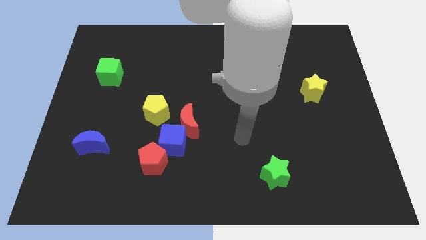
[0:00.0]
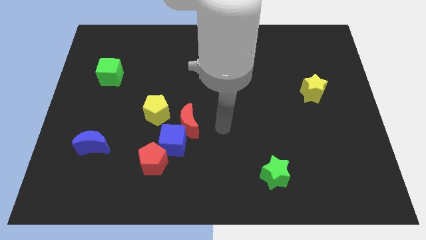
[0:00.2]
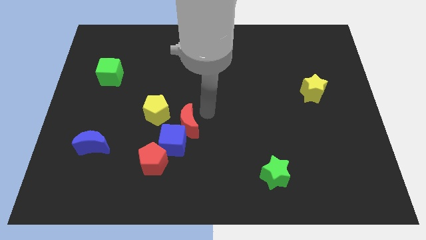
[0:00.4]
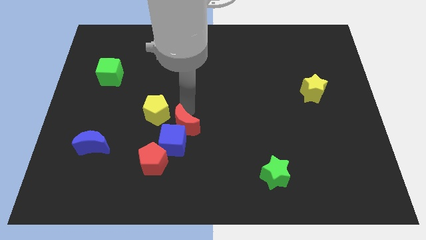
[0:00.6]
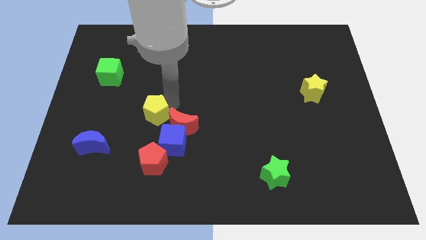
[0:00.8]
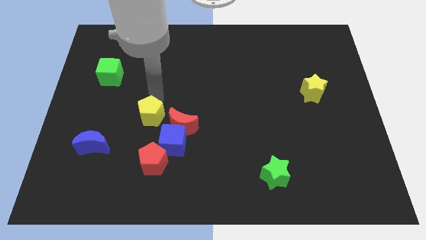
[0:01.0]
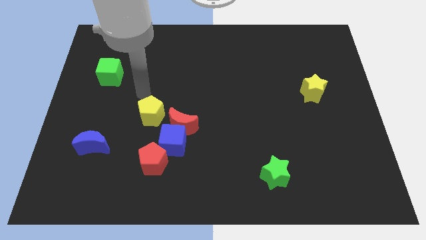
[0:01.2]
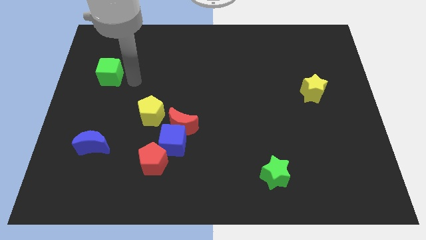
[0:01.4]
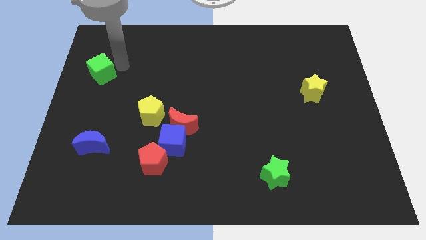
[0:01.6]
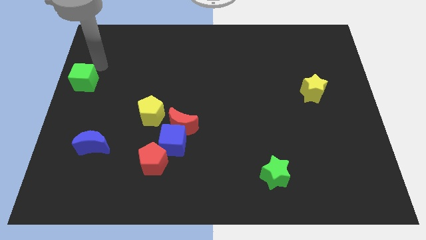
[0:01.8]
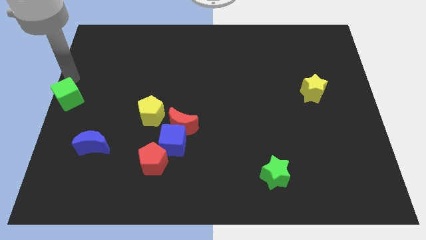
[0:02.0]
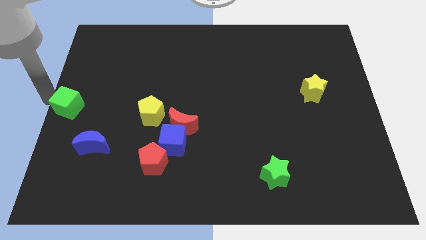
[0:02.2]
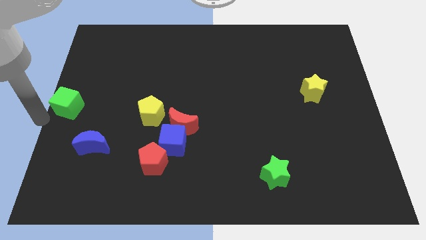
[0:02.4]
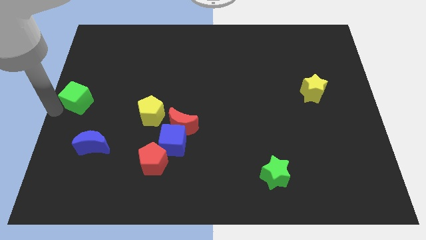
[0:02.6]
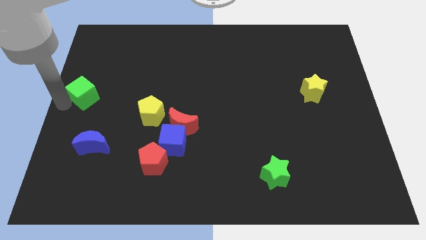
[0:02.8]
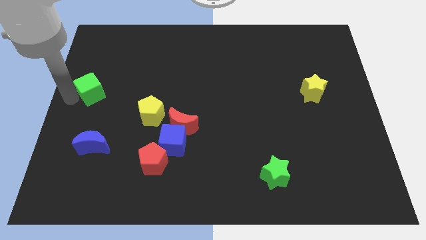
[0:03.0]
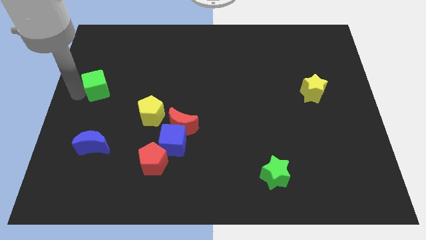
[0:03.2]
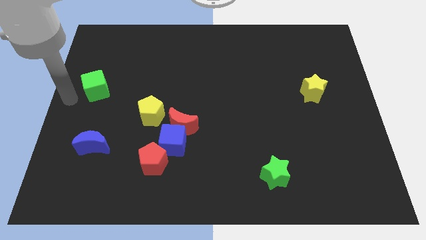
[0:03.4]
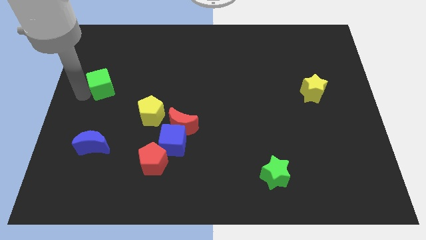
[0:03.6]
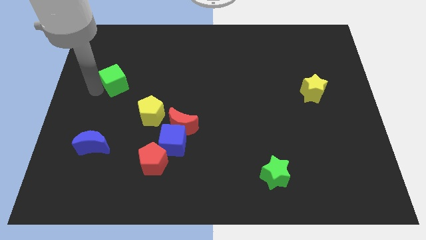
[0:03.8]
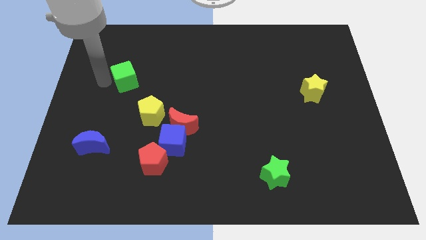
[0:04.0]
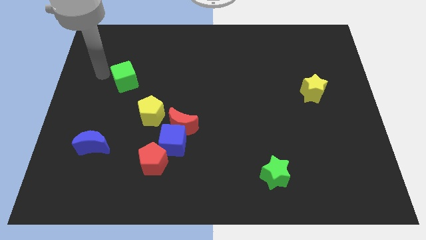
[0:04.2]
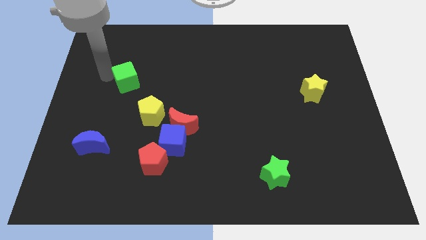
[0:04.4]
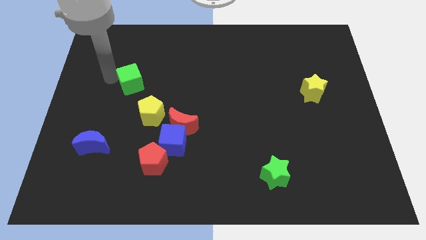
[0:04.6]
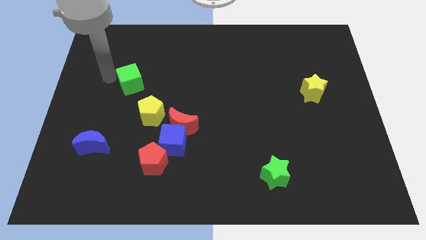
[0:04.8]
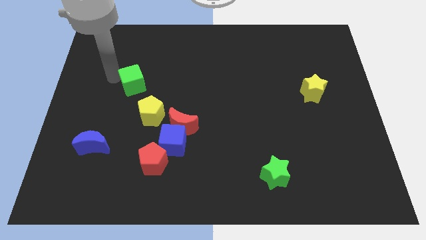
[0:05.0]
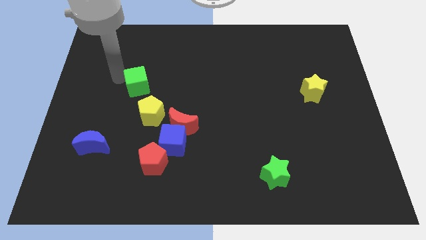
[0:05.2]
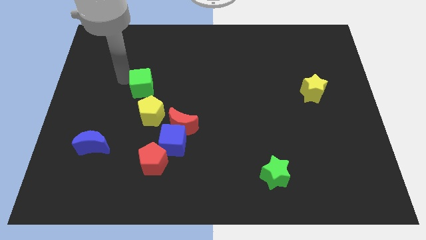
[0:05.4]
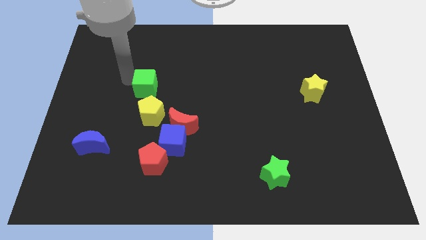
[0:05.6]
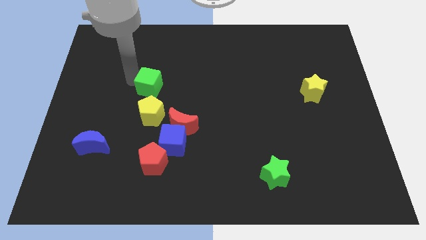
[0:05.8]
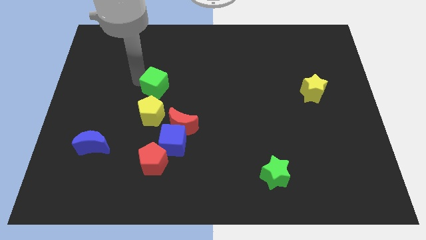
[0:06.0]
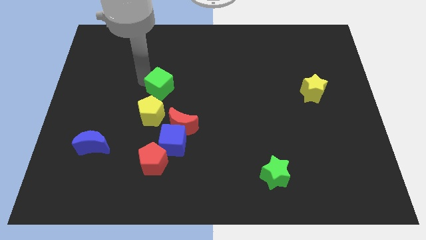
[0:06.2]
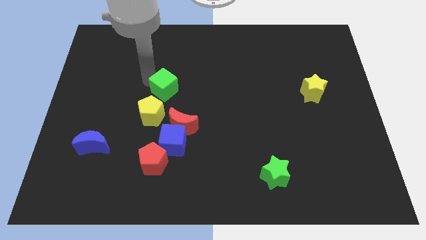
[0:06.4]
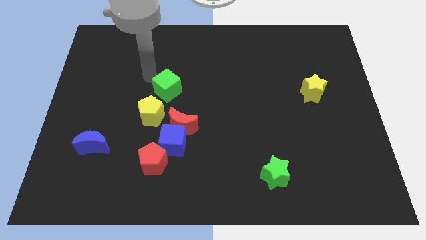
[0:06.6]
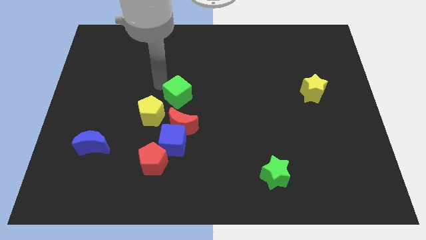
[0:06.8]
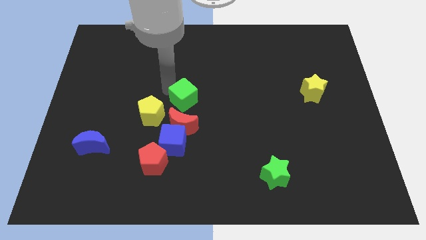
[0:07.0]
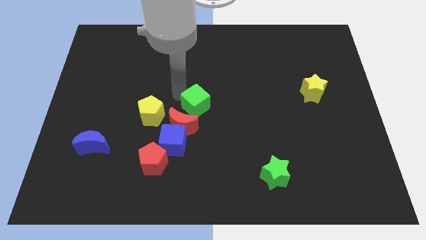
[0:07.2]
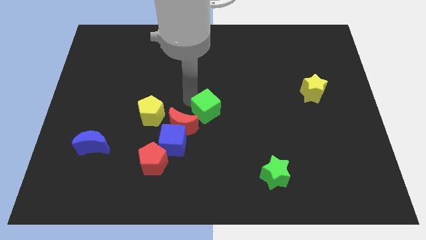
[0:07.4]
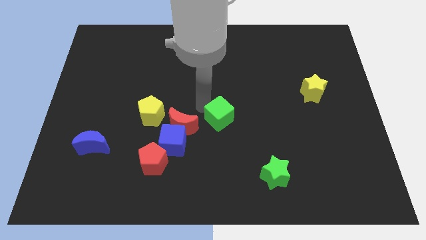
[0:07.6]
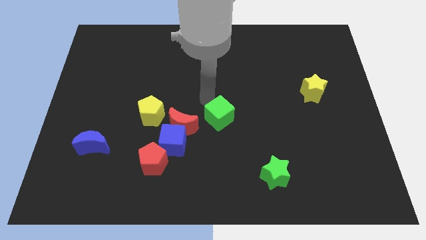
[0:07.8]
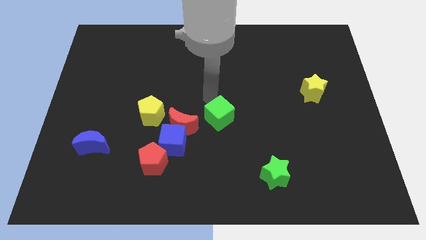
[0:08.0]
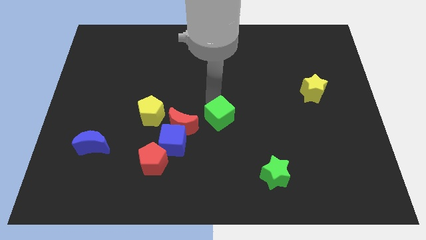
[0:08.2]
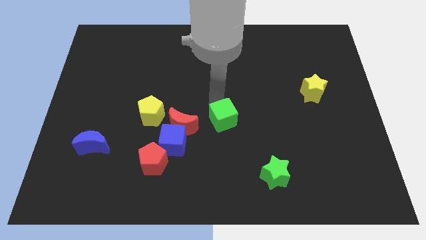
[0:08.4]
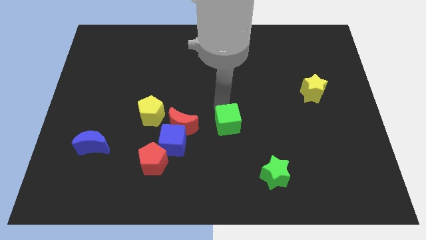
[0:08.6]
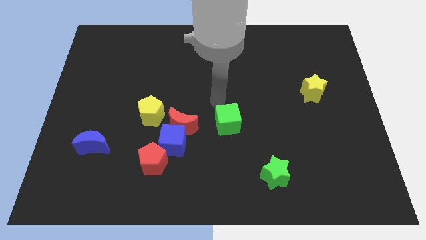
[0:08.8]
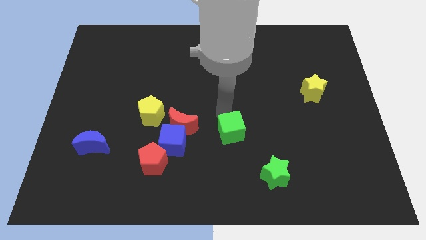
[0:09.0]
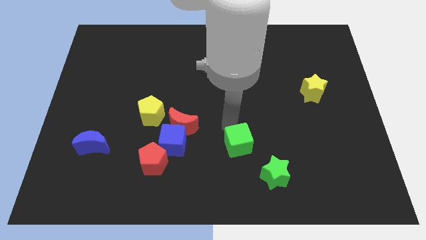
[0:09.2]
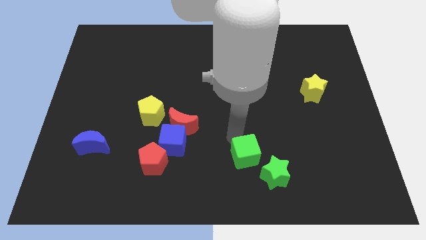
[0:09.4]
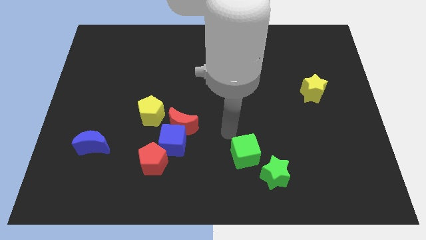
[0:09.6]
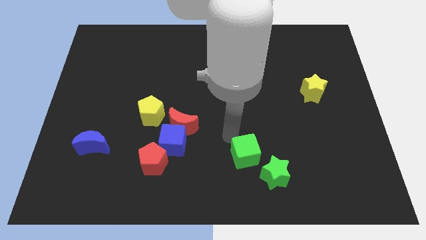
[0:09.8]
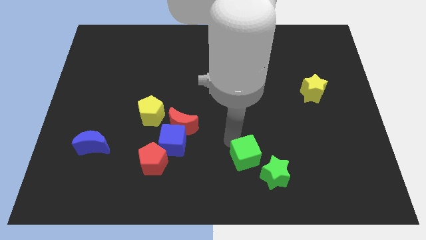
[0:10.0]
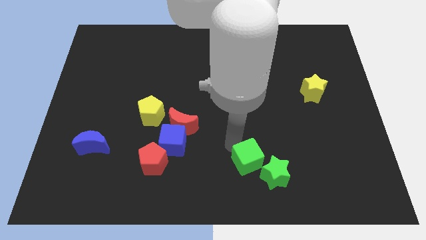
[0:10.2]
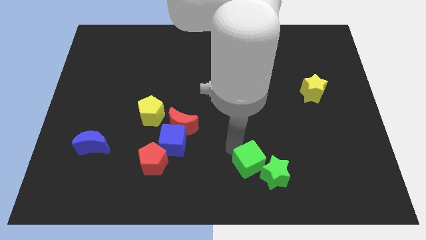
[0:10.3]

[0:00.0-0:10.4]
push the green cube close to the green star

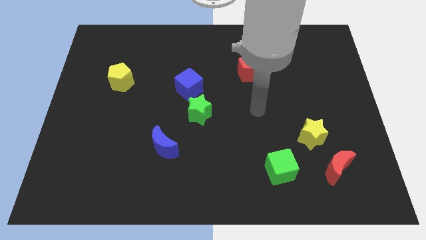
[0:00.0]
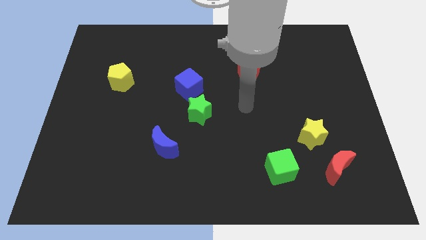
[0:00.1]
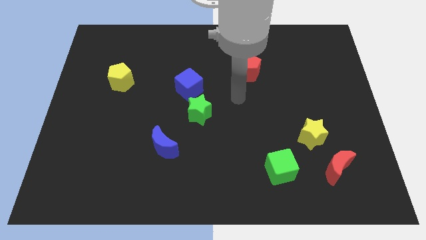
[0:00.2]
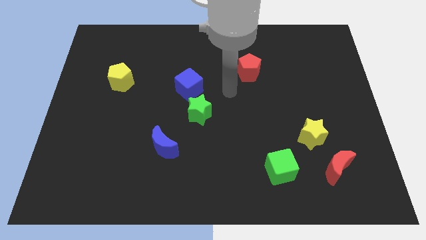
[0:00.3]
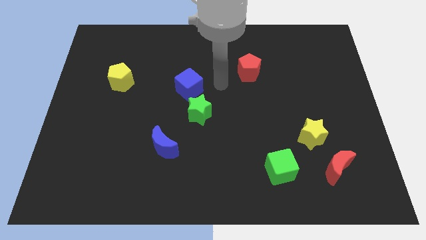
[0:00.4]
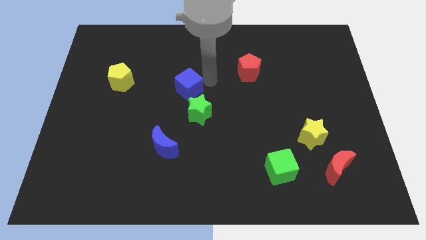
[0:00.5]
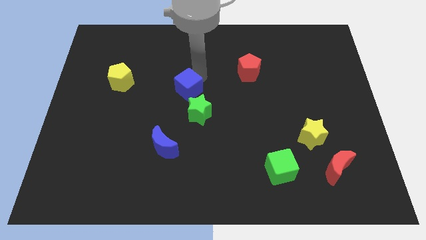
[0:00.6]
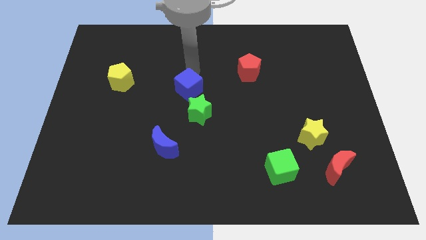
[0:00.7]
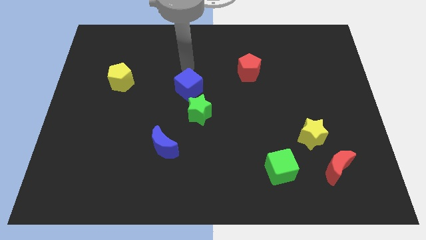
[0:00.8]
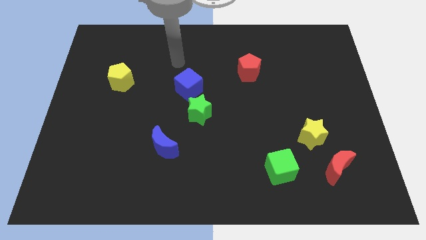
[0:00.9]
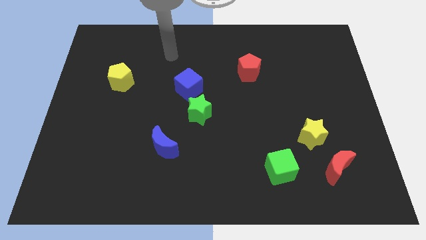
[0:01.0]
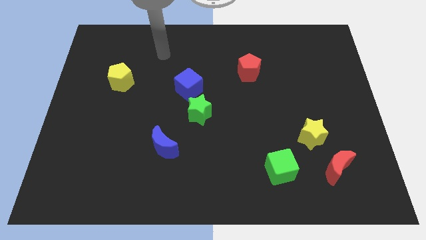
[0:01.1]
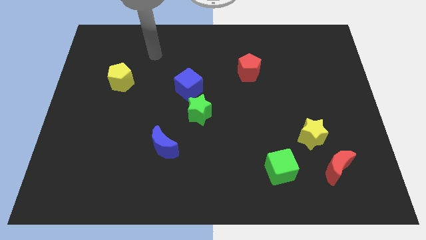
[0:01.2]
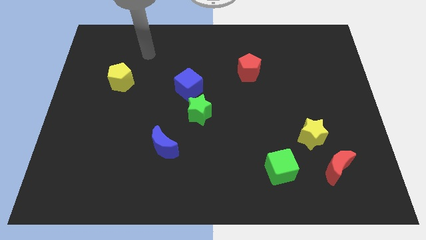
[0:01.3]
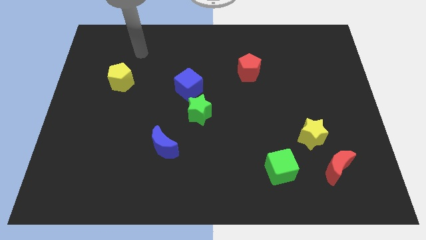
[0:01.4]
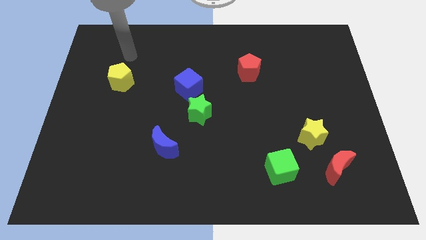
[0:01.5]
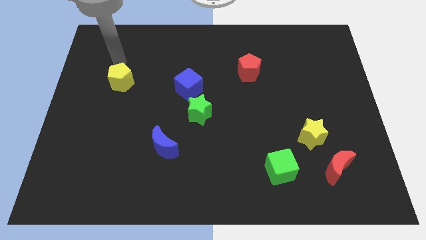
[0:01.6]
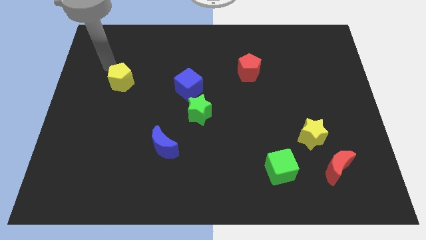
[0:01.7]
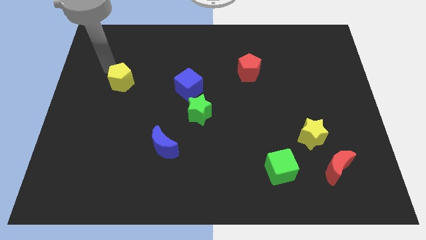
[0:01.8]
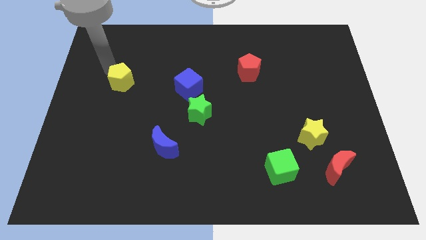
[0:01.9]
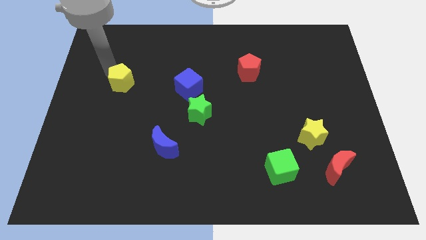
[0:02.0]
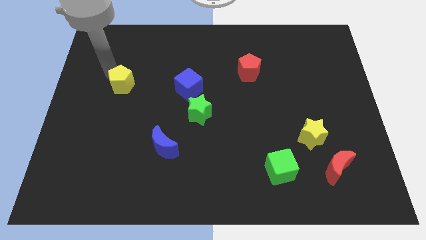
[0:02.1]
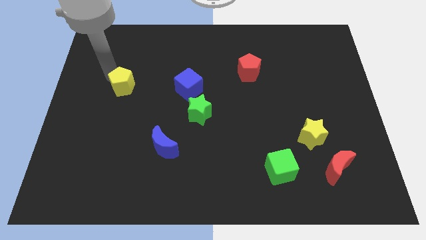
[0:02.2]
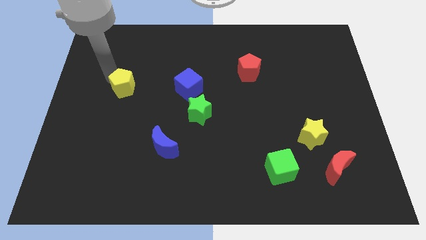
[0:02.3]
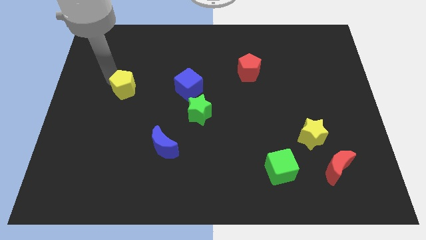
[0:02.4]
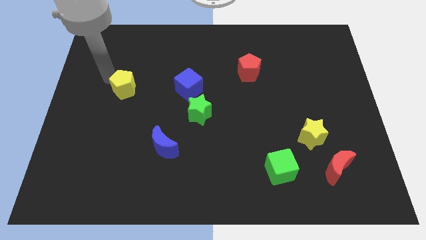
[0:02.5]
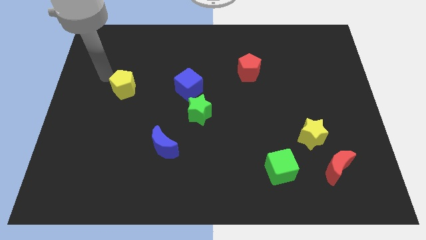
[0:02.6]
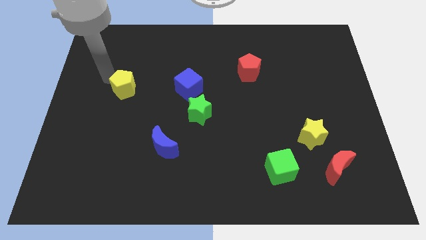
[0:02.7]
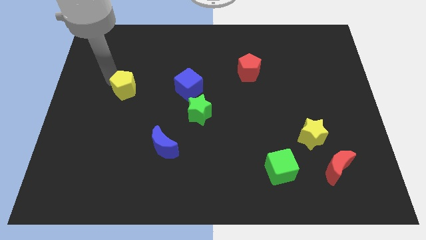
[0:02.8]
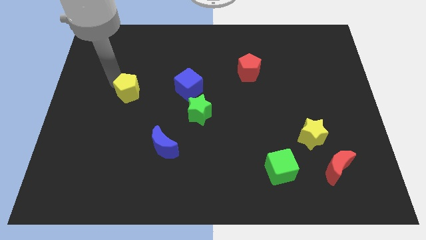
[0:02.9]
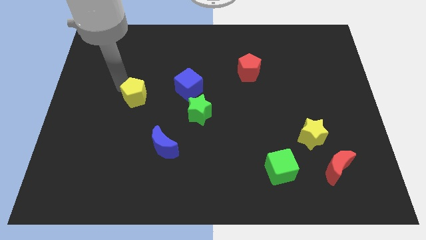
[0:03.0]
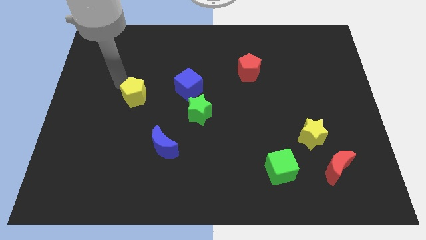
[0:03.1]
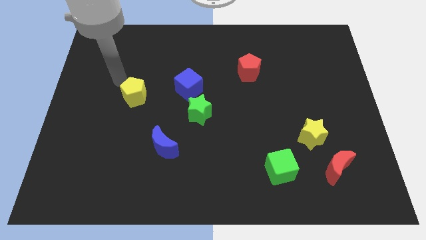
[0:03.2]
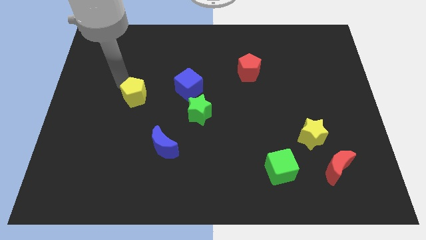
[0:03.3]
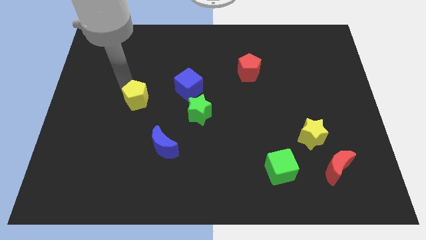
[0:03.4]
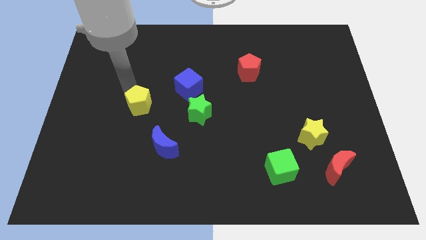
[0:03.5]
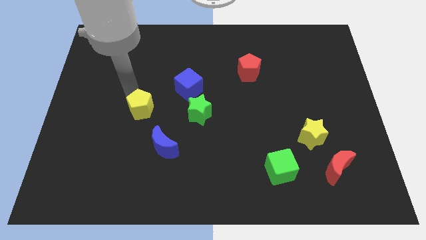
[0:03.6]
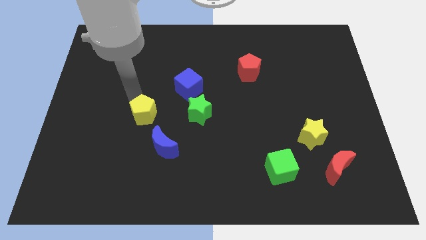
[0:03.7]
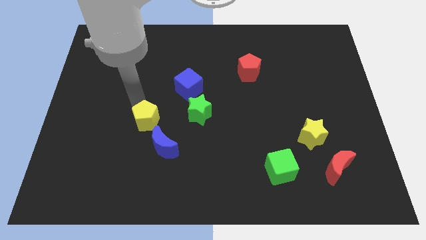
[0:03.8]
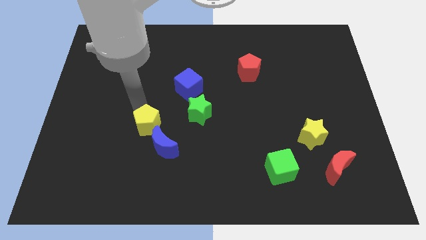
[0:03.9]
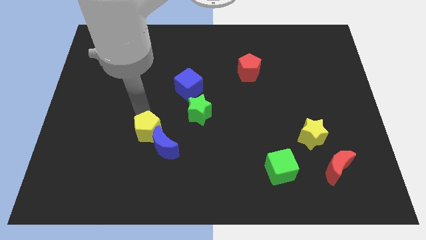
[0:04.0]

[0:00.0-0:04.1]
slide the yellow pentagon to the blue moon
